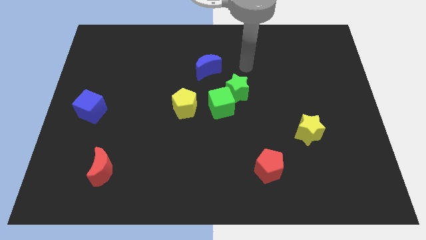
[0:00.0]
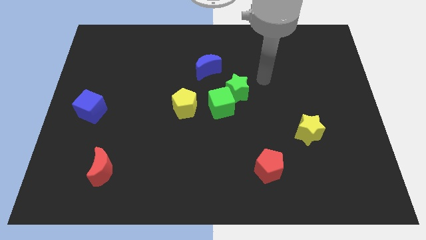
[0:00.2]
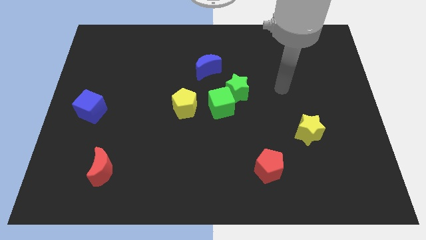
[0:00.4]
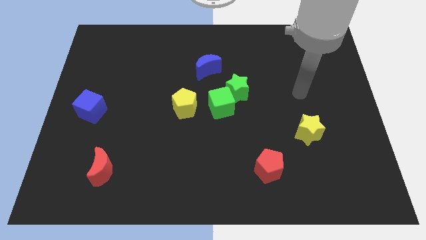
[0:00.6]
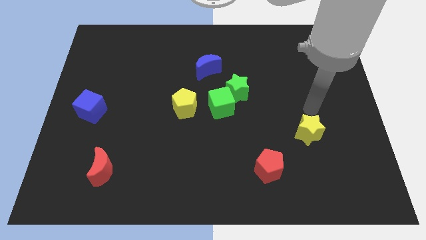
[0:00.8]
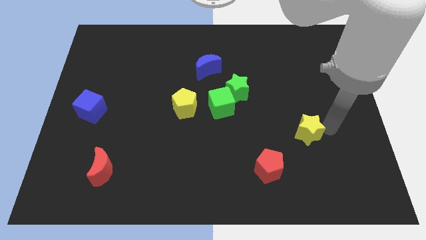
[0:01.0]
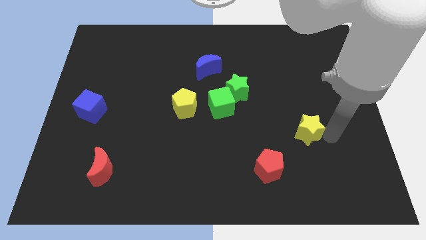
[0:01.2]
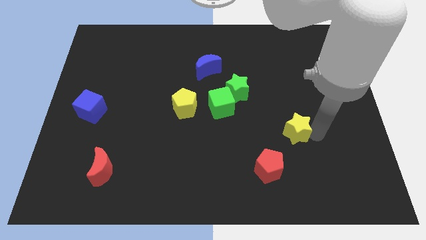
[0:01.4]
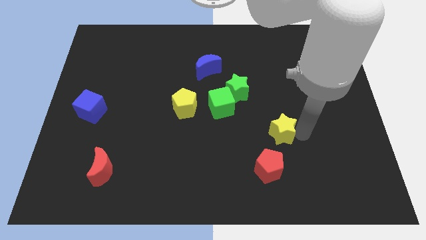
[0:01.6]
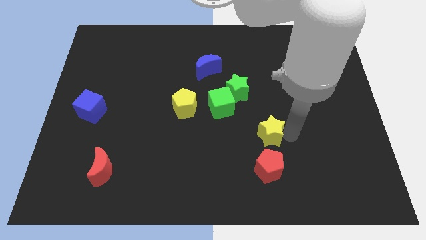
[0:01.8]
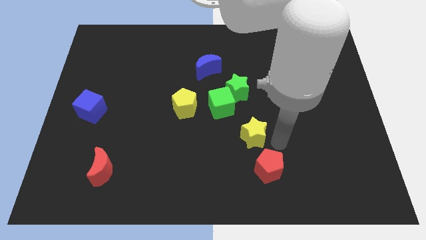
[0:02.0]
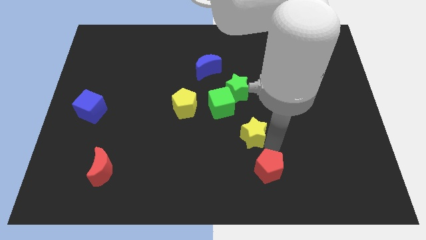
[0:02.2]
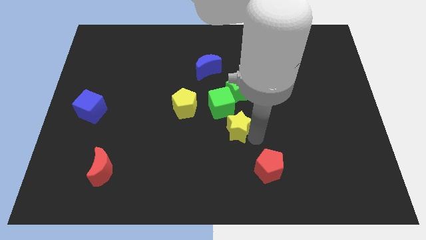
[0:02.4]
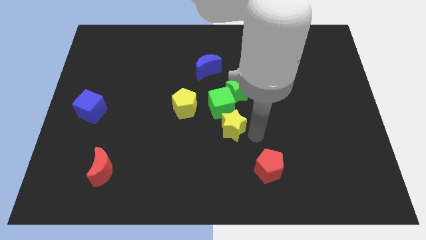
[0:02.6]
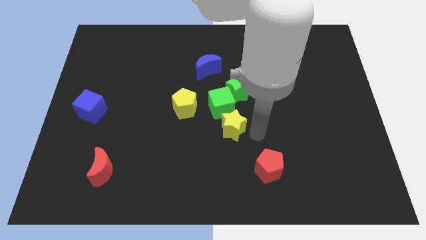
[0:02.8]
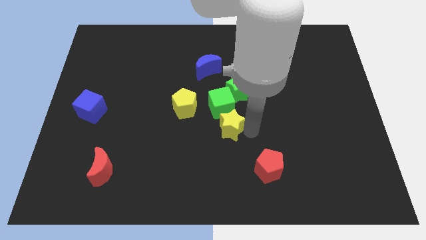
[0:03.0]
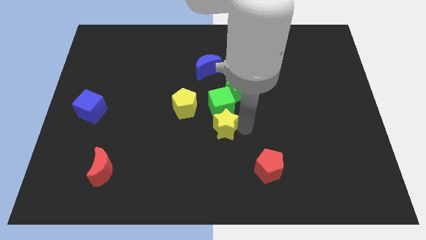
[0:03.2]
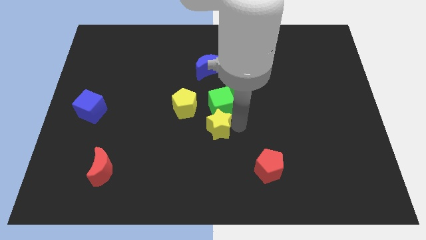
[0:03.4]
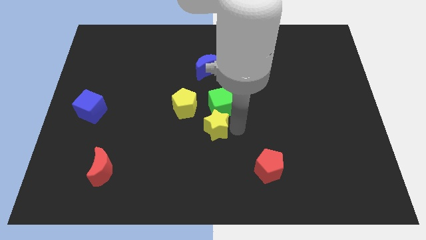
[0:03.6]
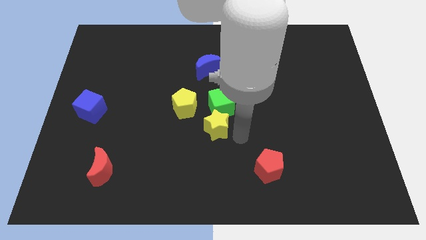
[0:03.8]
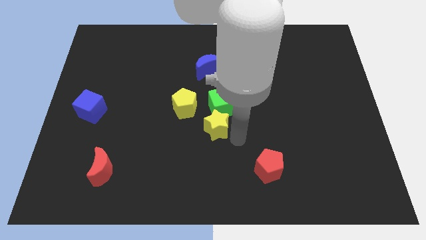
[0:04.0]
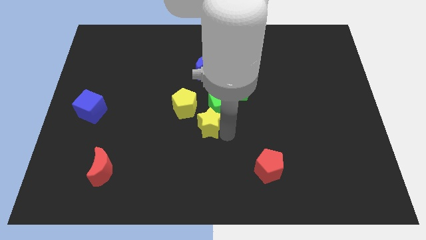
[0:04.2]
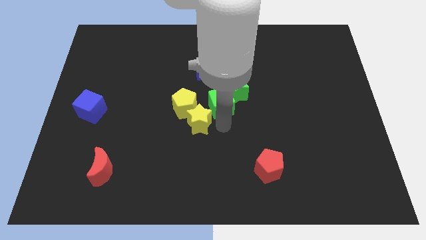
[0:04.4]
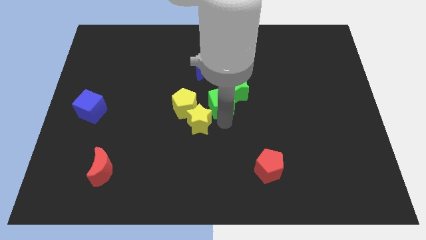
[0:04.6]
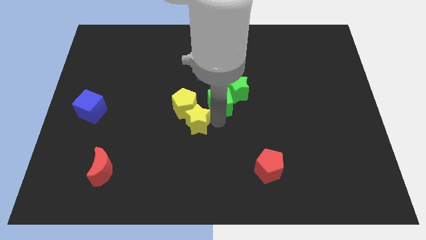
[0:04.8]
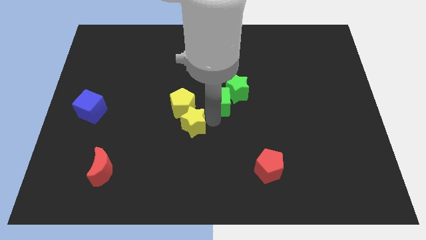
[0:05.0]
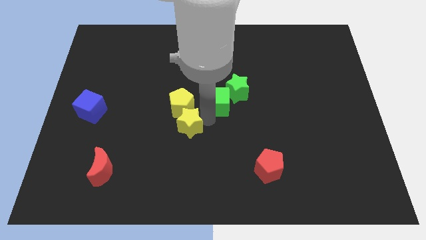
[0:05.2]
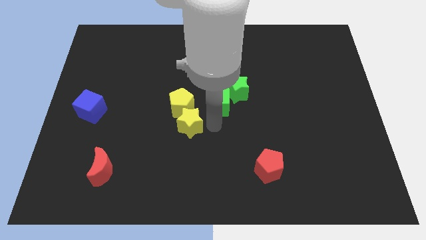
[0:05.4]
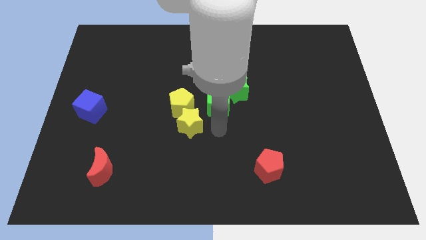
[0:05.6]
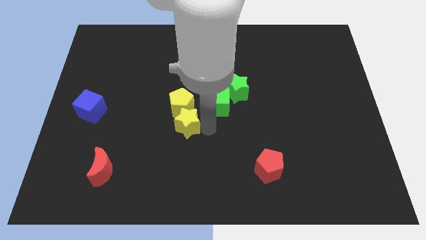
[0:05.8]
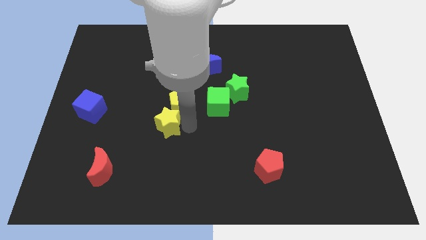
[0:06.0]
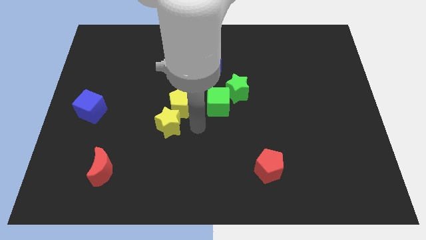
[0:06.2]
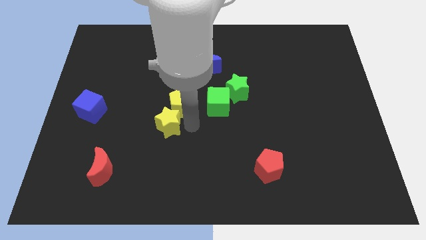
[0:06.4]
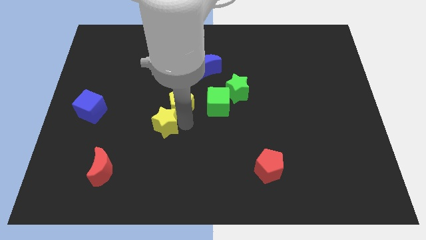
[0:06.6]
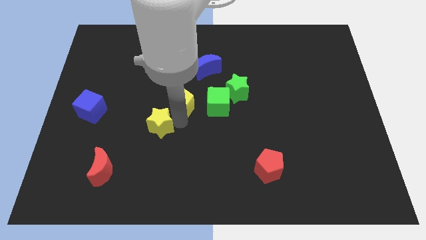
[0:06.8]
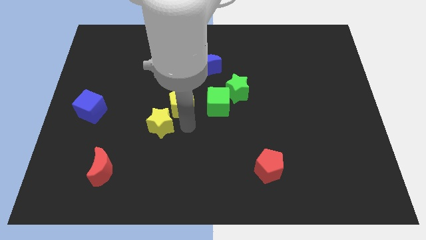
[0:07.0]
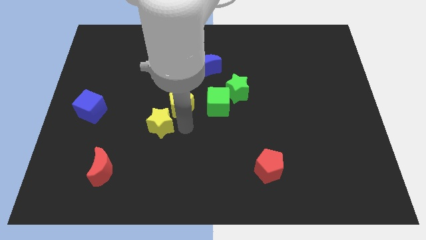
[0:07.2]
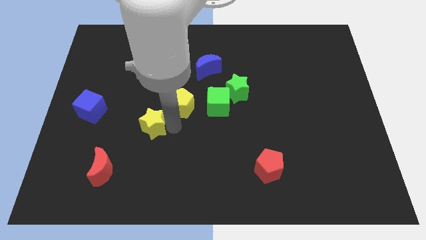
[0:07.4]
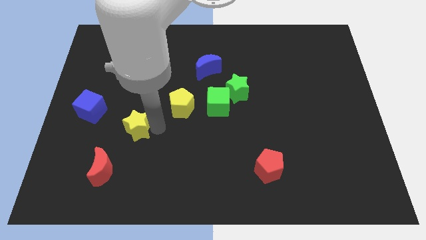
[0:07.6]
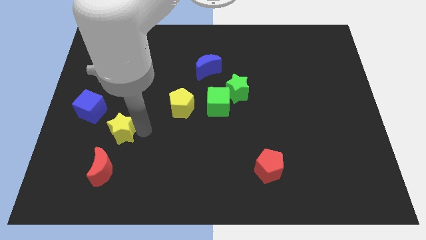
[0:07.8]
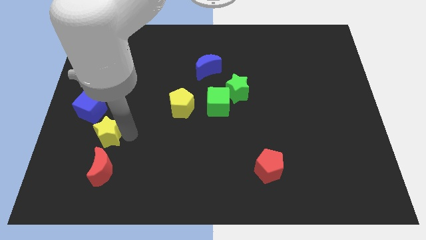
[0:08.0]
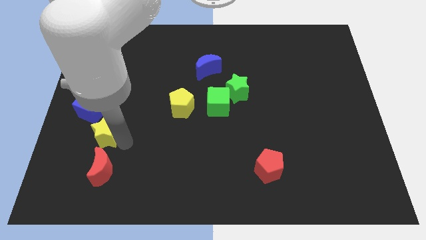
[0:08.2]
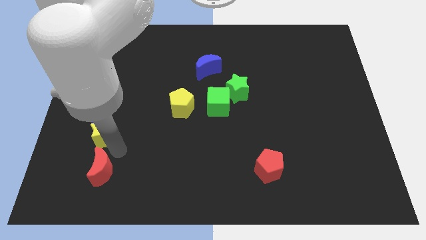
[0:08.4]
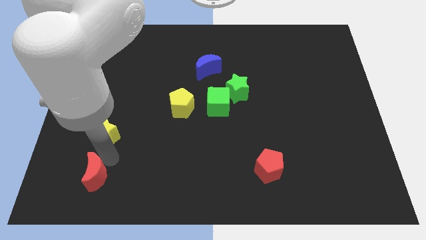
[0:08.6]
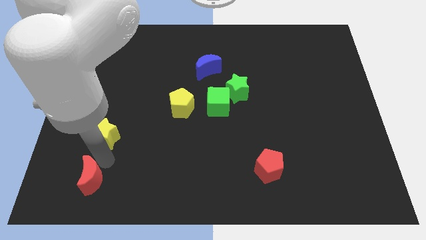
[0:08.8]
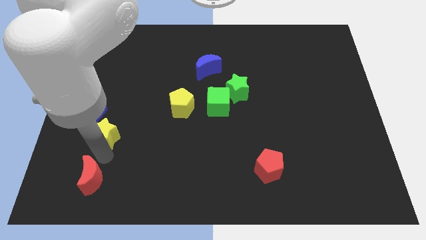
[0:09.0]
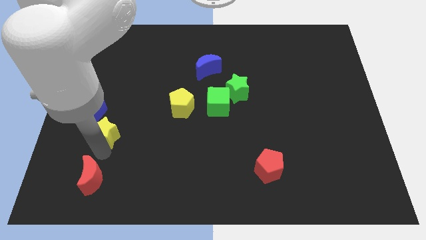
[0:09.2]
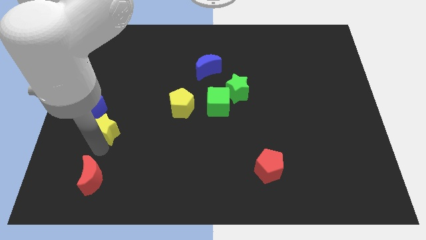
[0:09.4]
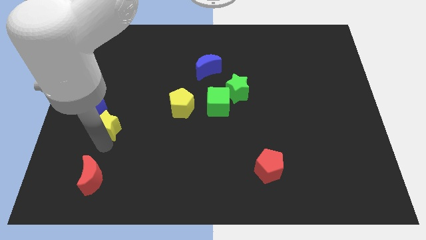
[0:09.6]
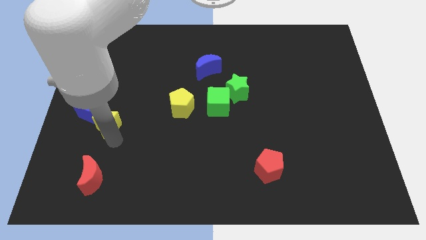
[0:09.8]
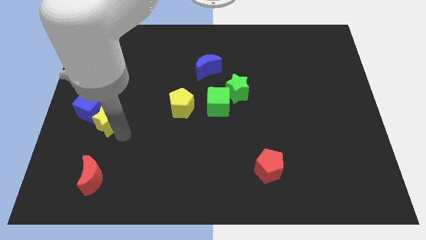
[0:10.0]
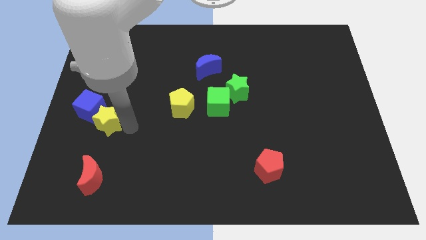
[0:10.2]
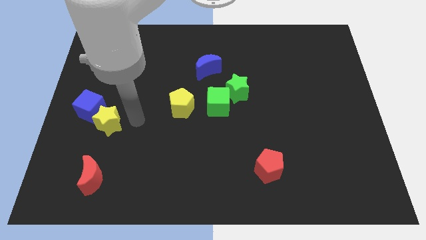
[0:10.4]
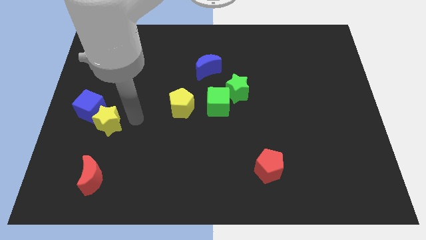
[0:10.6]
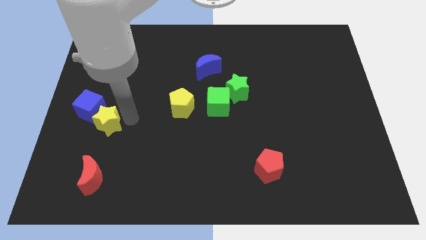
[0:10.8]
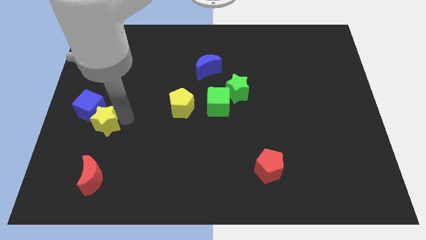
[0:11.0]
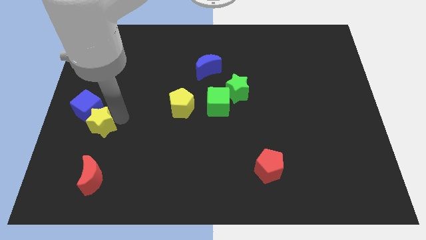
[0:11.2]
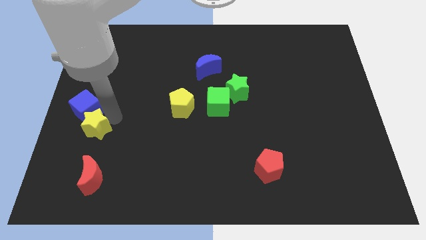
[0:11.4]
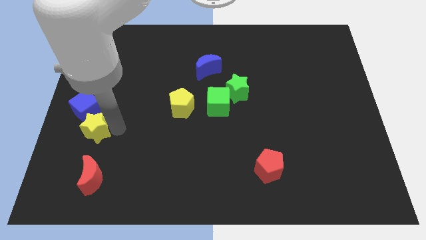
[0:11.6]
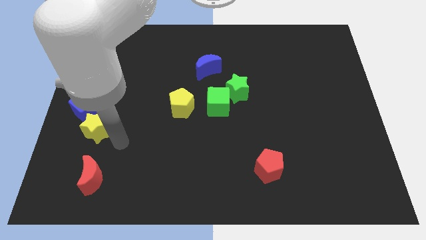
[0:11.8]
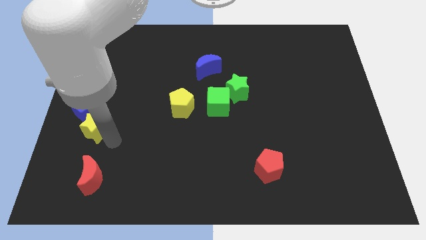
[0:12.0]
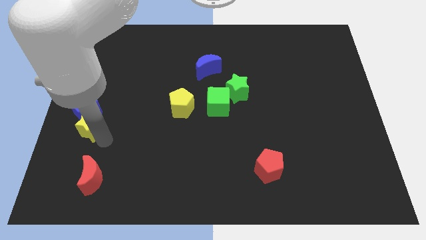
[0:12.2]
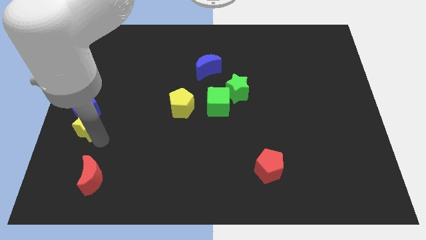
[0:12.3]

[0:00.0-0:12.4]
move the yellow star to the center left
